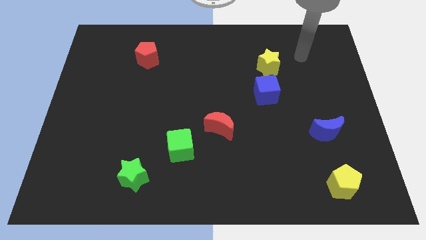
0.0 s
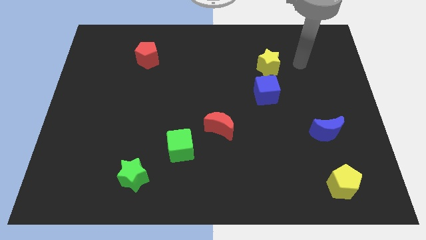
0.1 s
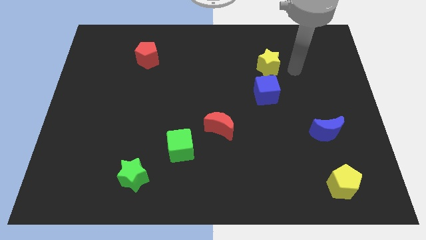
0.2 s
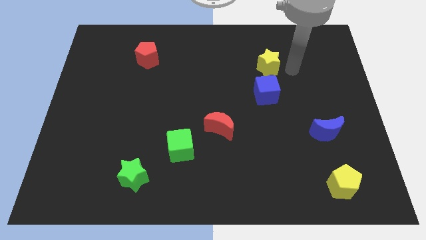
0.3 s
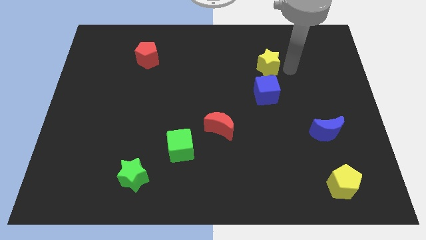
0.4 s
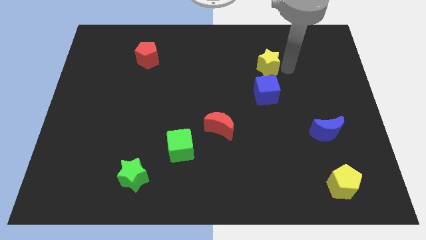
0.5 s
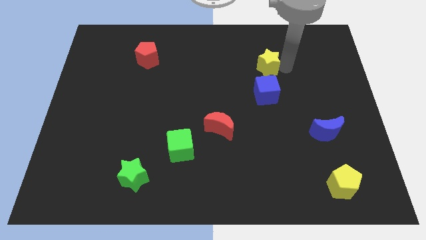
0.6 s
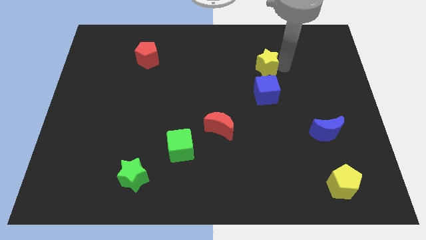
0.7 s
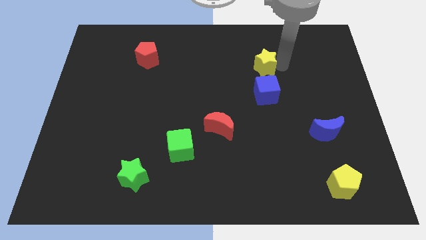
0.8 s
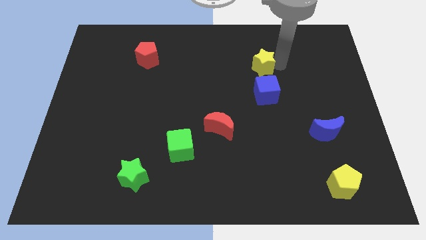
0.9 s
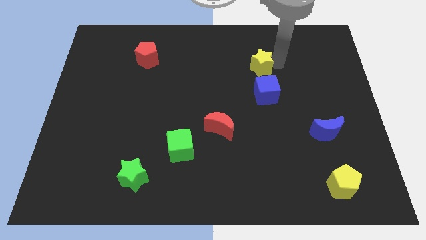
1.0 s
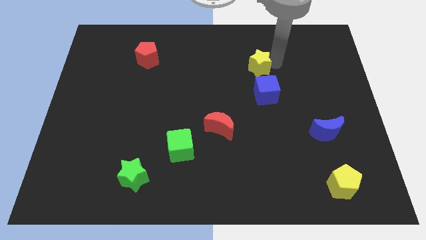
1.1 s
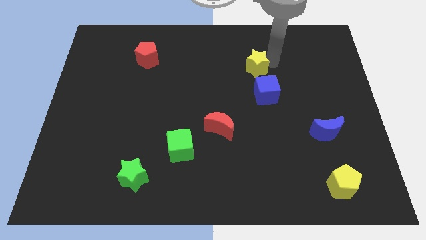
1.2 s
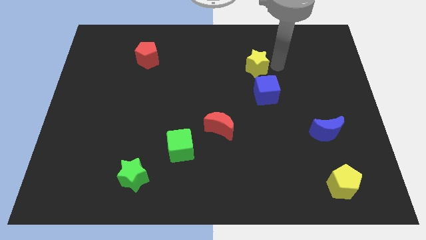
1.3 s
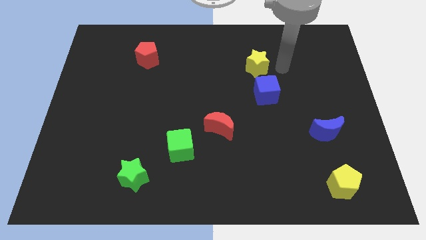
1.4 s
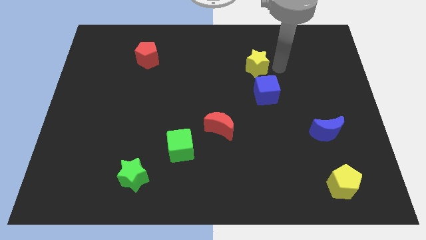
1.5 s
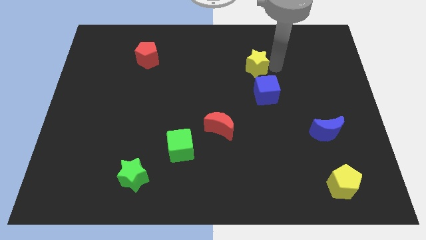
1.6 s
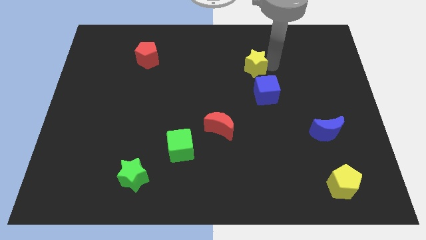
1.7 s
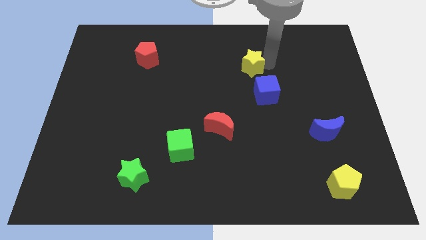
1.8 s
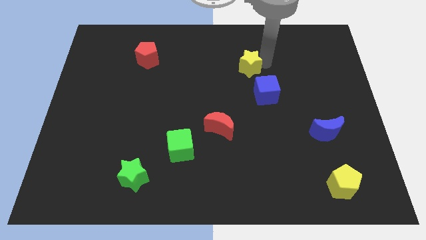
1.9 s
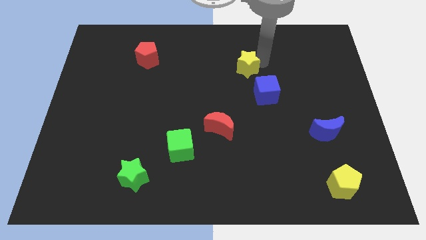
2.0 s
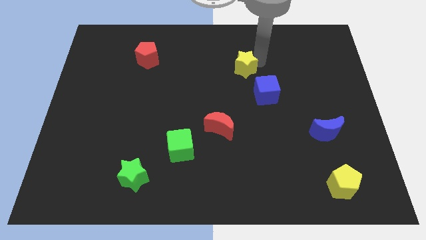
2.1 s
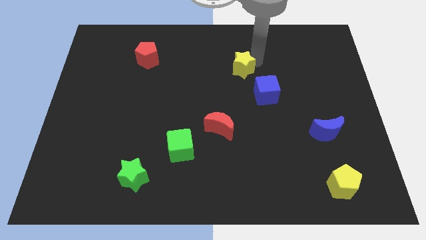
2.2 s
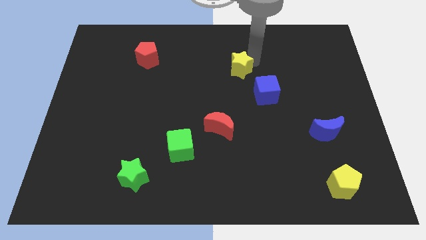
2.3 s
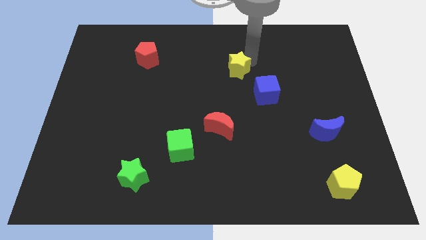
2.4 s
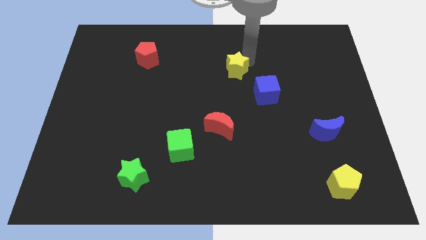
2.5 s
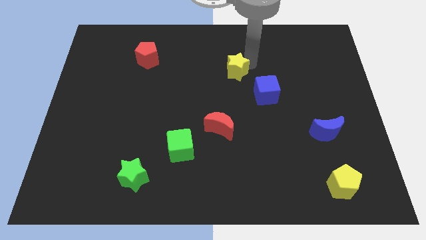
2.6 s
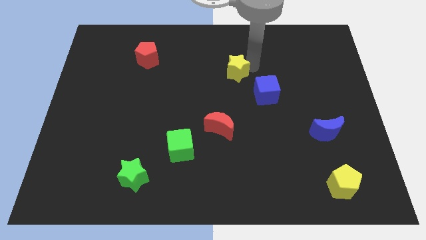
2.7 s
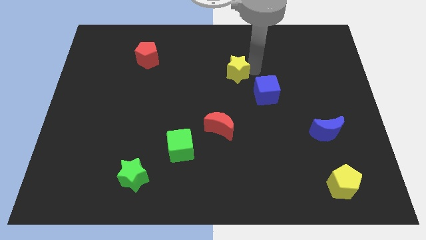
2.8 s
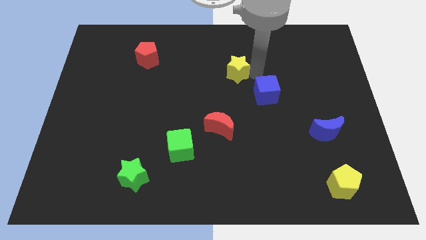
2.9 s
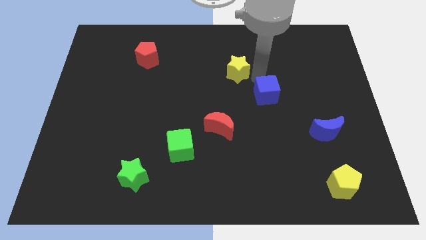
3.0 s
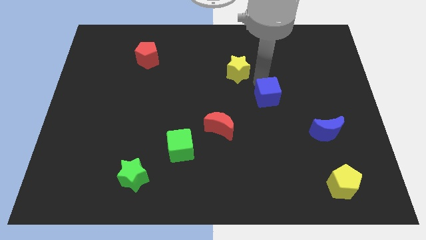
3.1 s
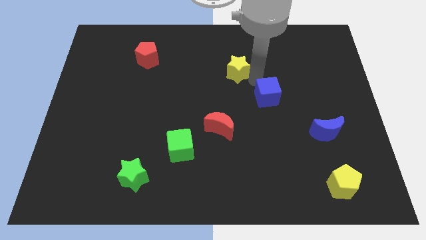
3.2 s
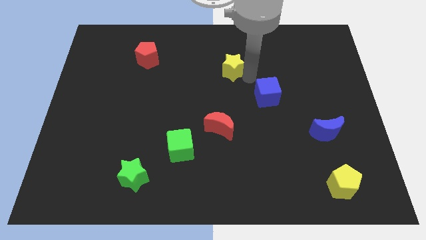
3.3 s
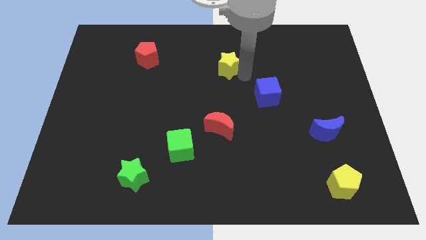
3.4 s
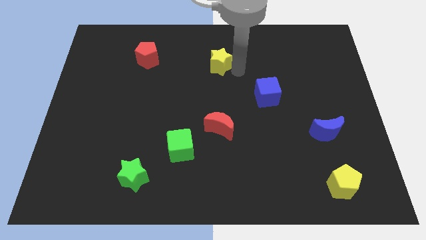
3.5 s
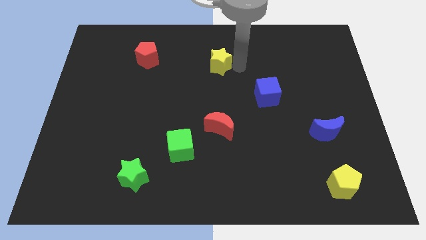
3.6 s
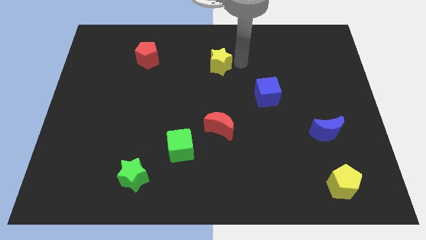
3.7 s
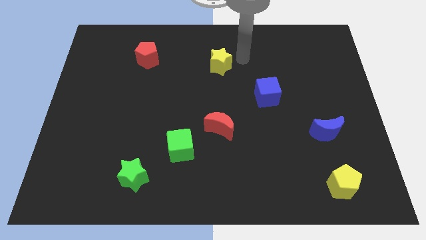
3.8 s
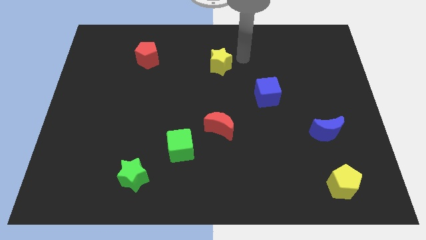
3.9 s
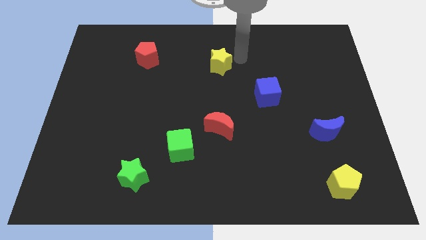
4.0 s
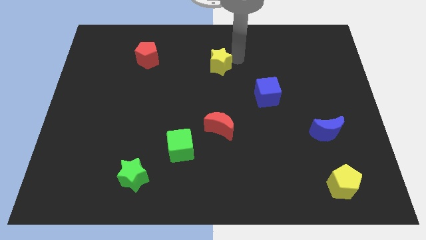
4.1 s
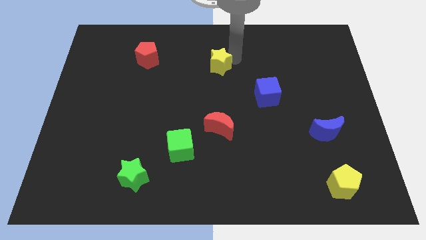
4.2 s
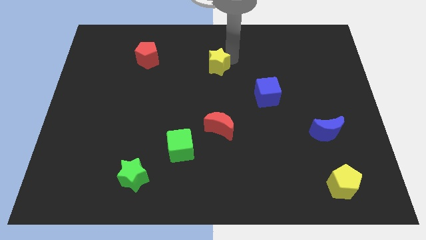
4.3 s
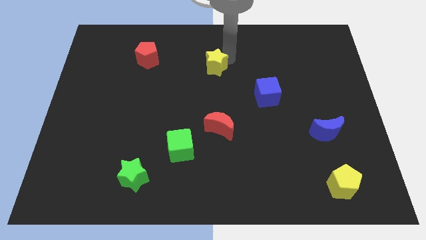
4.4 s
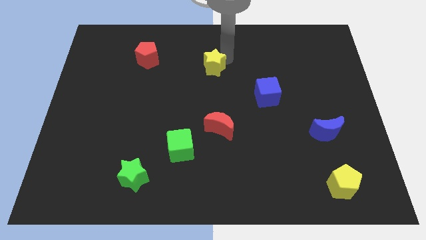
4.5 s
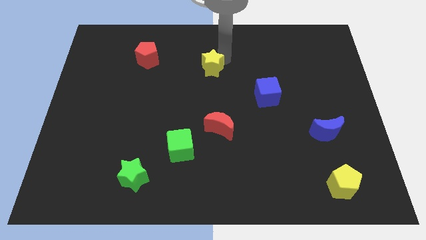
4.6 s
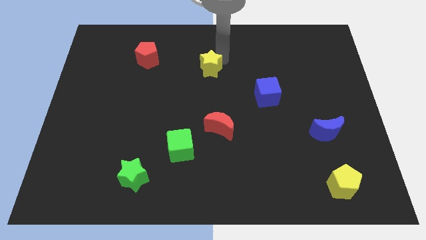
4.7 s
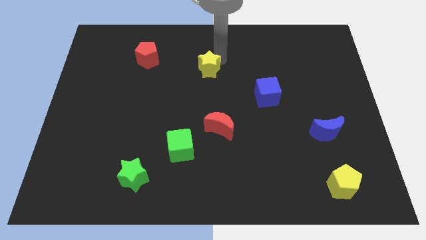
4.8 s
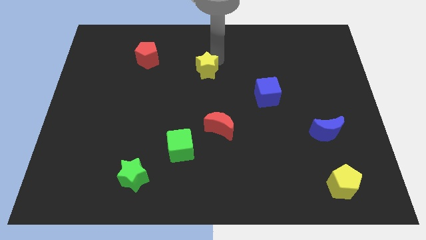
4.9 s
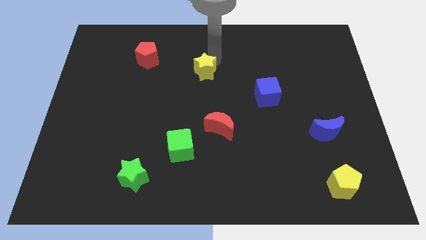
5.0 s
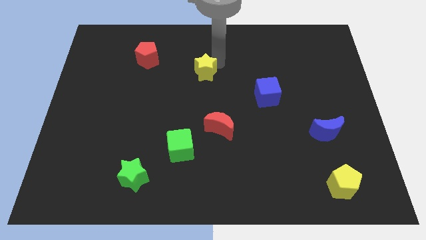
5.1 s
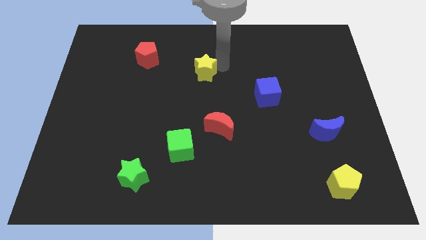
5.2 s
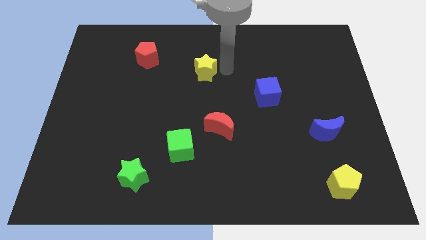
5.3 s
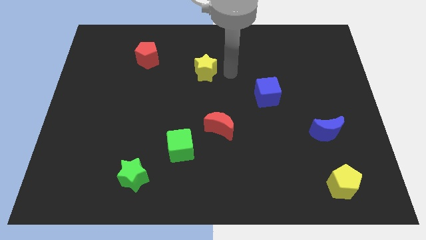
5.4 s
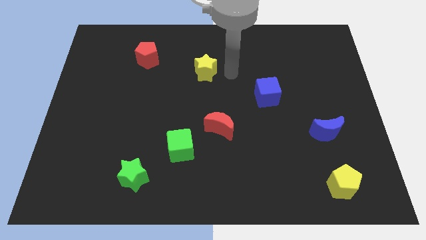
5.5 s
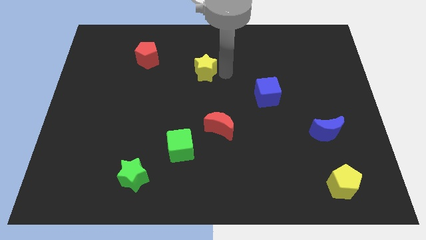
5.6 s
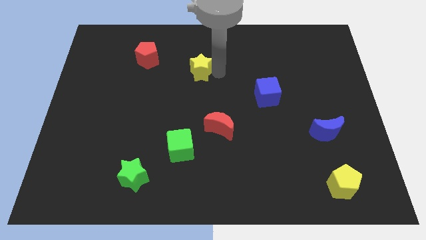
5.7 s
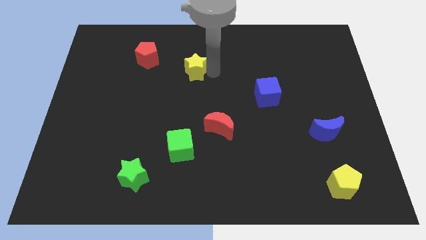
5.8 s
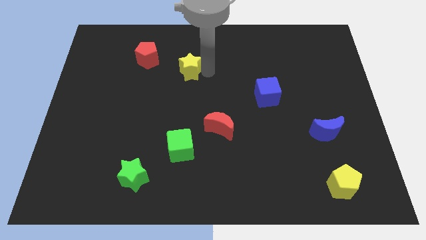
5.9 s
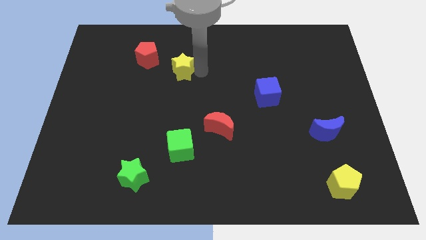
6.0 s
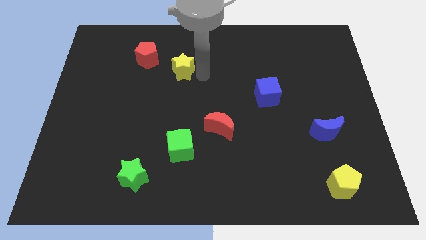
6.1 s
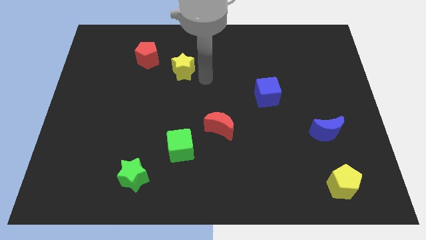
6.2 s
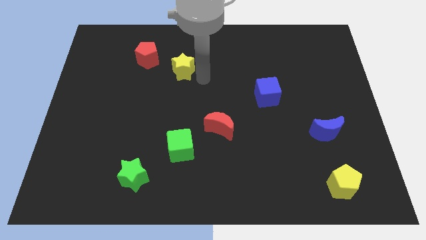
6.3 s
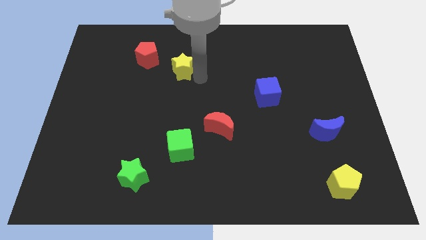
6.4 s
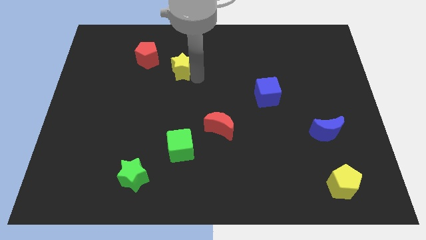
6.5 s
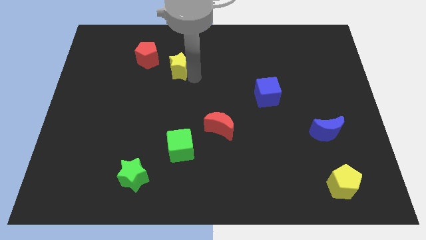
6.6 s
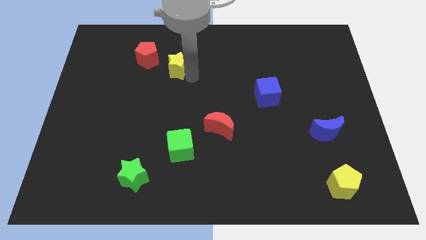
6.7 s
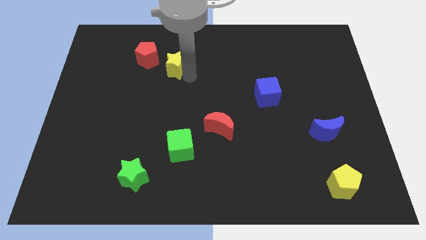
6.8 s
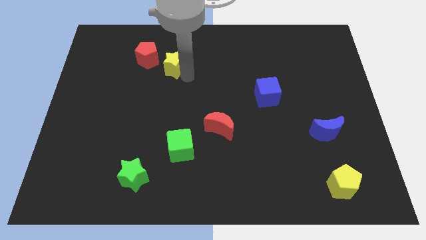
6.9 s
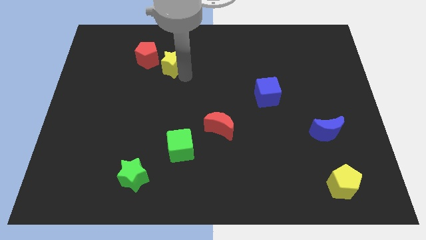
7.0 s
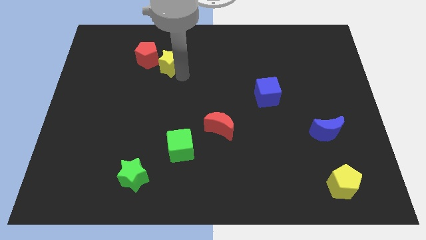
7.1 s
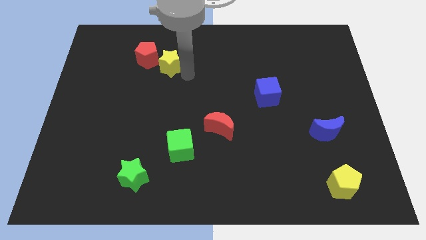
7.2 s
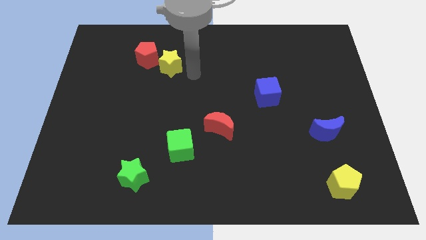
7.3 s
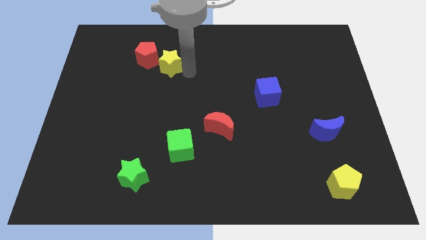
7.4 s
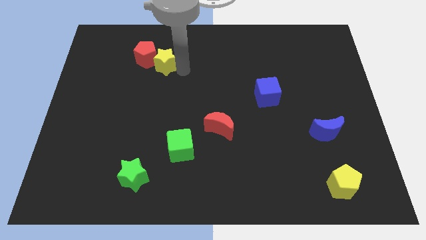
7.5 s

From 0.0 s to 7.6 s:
move the yellow star towards the red pentagon
